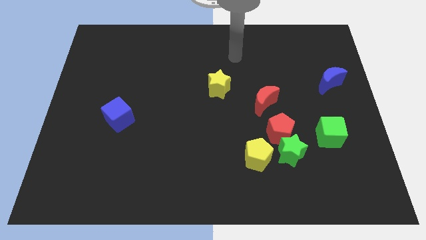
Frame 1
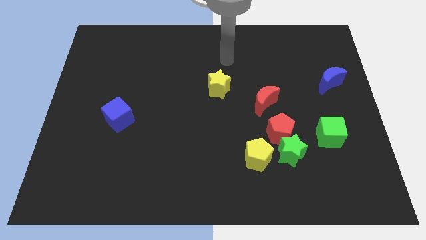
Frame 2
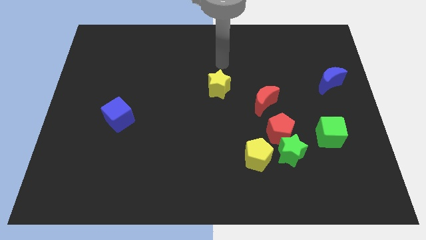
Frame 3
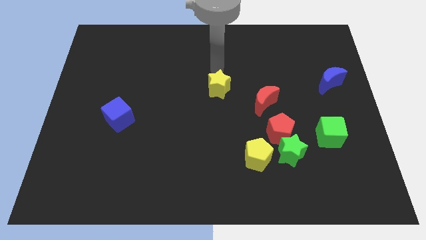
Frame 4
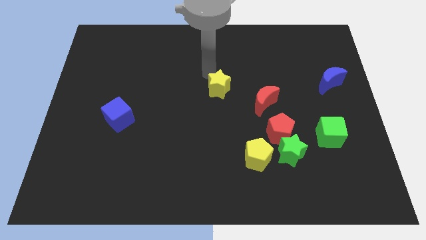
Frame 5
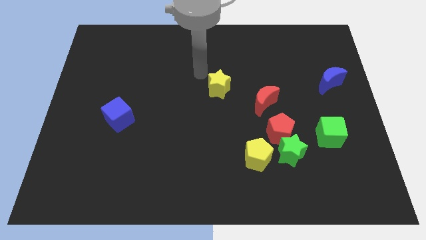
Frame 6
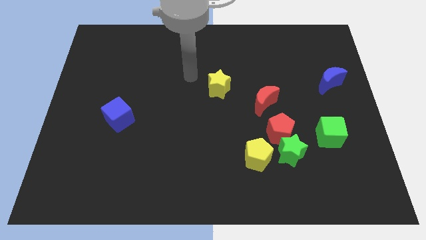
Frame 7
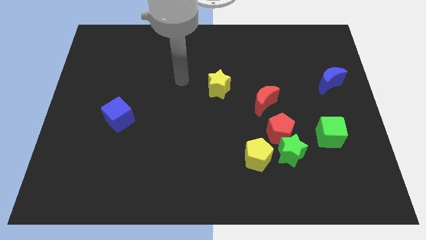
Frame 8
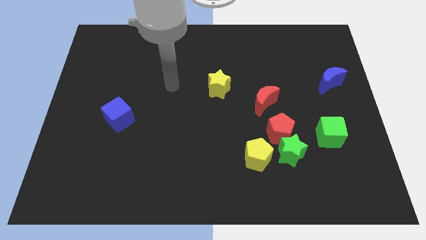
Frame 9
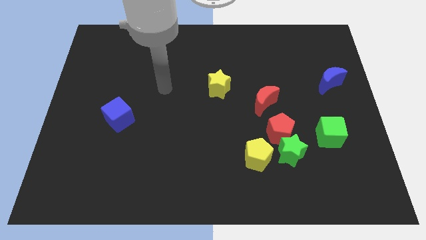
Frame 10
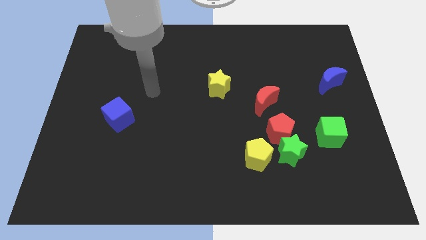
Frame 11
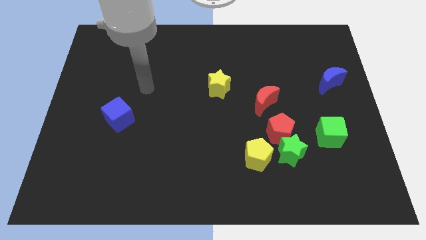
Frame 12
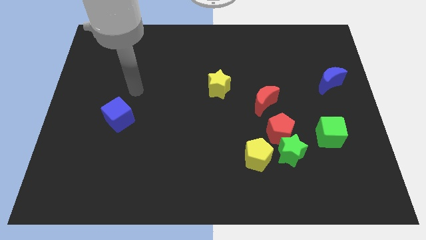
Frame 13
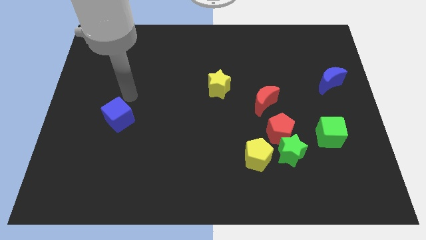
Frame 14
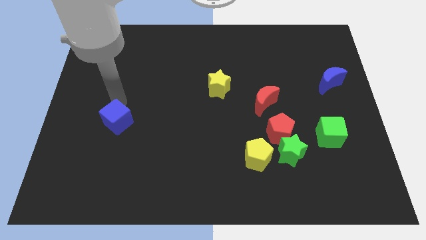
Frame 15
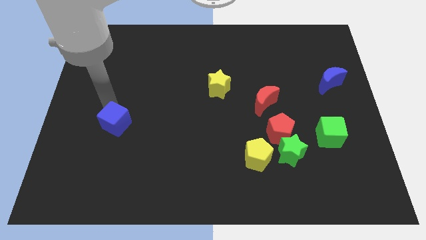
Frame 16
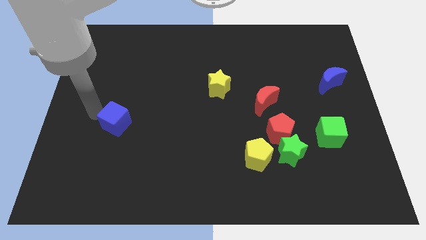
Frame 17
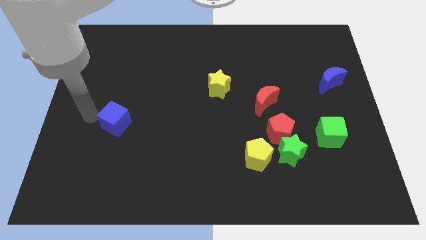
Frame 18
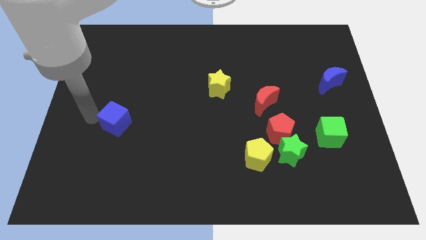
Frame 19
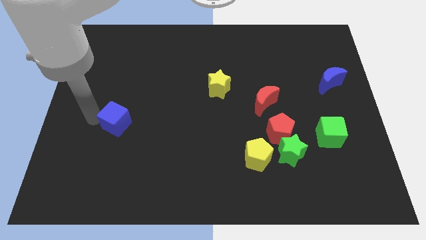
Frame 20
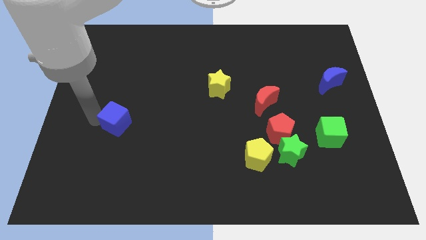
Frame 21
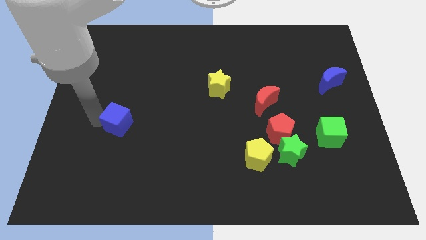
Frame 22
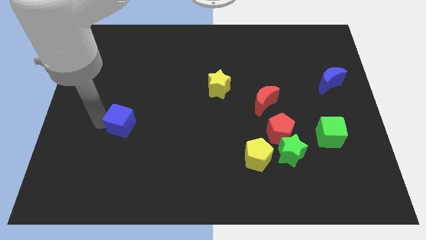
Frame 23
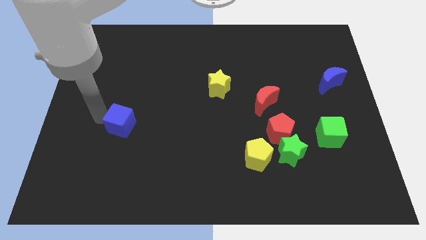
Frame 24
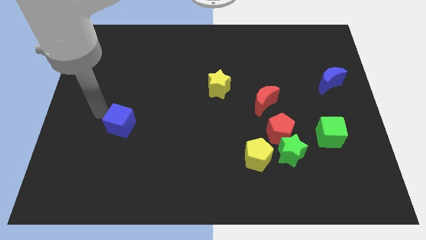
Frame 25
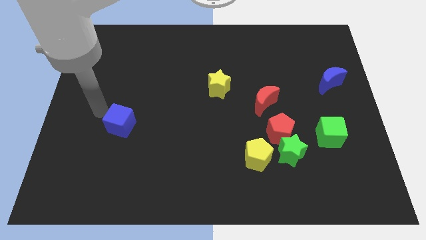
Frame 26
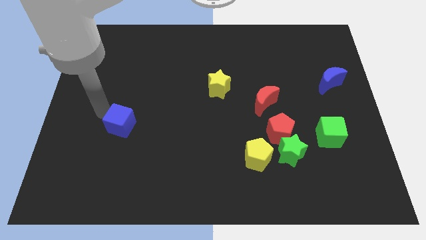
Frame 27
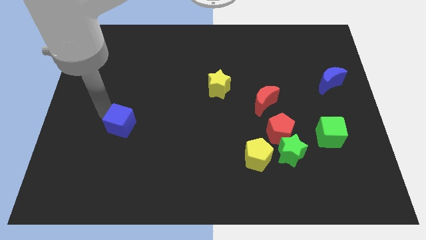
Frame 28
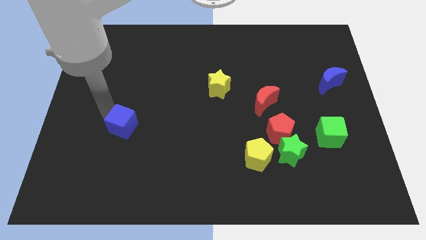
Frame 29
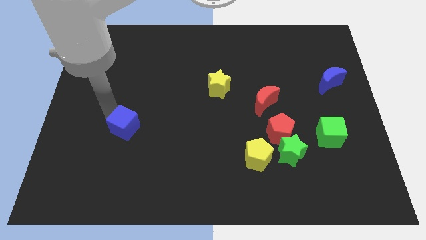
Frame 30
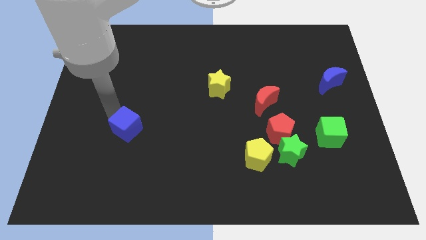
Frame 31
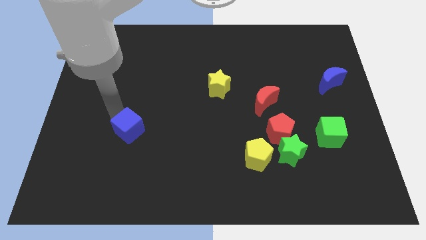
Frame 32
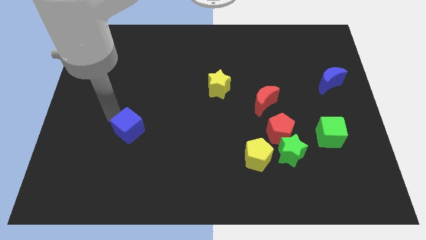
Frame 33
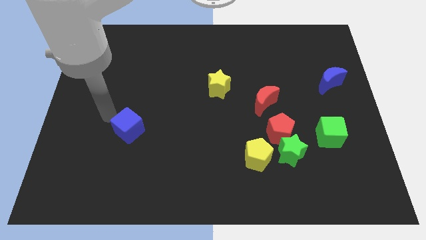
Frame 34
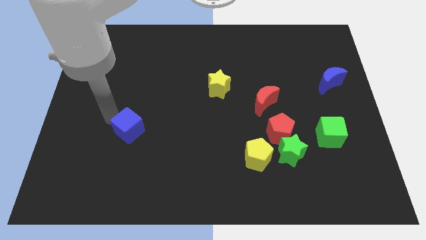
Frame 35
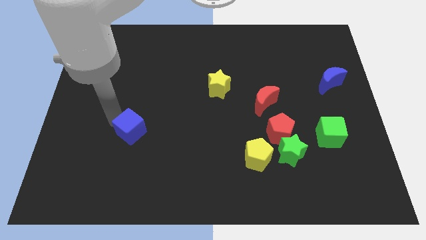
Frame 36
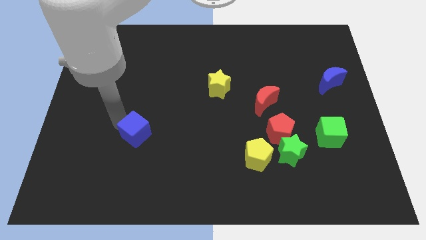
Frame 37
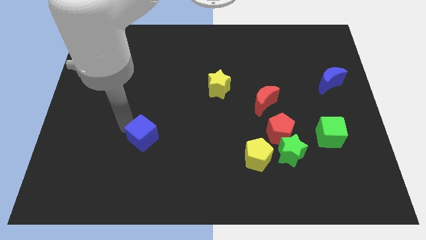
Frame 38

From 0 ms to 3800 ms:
push the blue cube down and then right somewhat

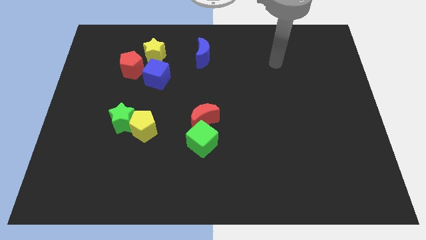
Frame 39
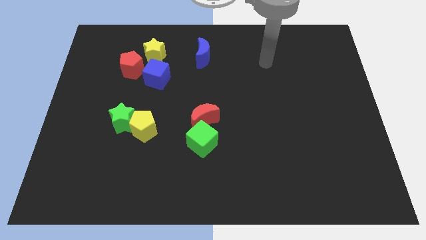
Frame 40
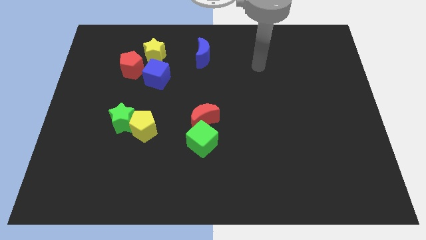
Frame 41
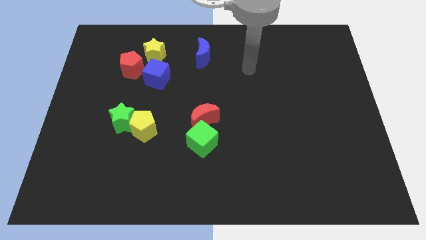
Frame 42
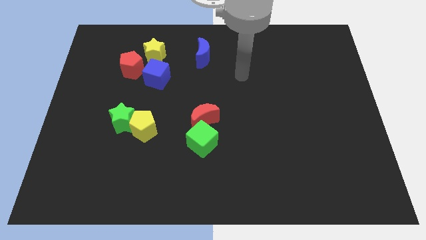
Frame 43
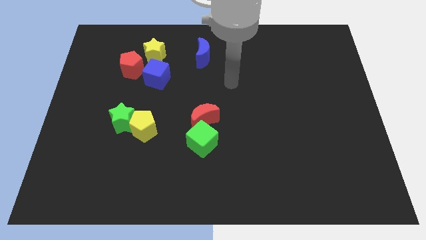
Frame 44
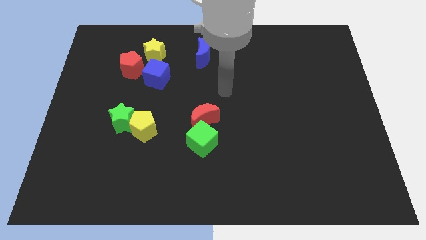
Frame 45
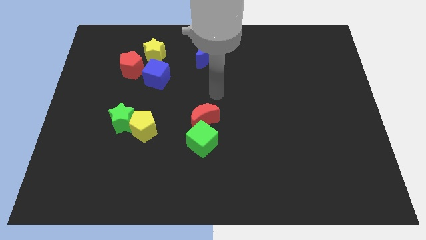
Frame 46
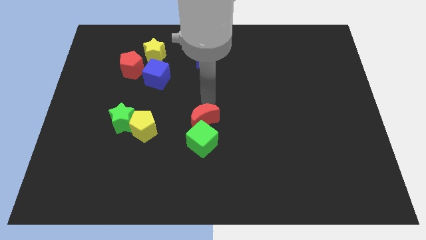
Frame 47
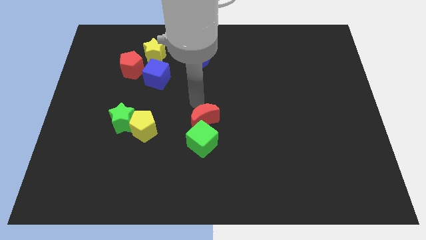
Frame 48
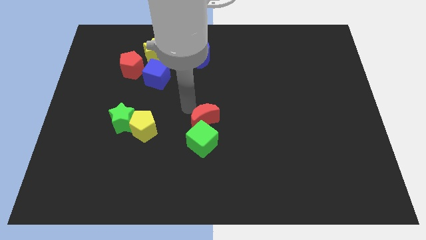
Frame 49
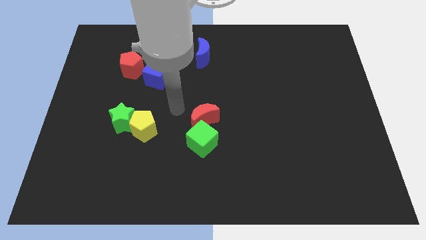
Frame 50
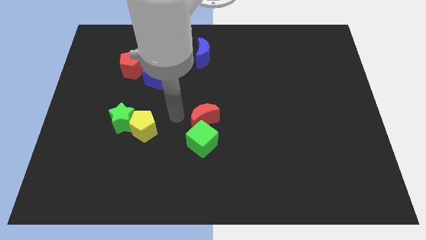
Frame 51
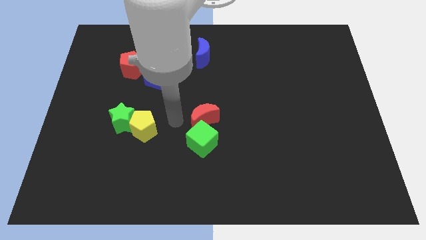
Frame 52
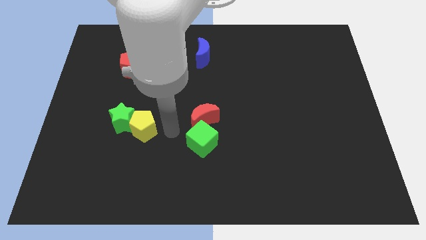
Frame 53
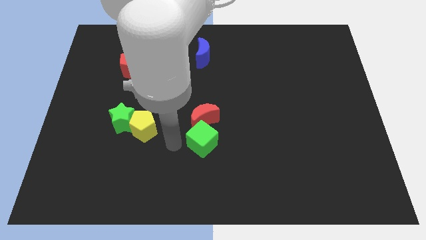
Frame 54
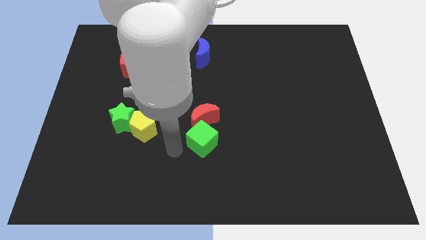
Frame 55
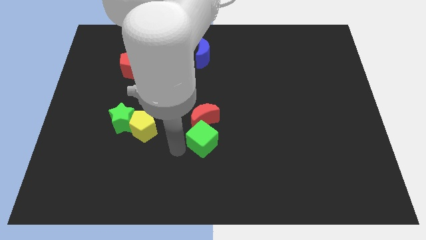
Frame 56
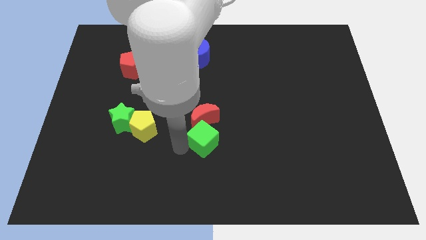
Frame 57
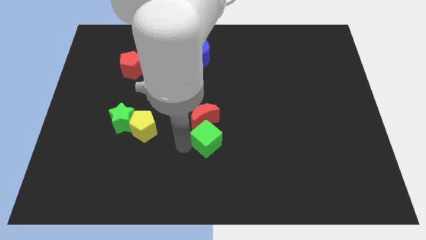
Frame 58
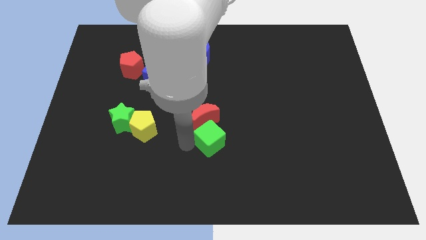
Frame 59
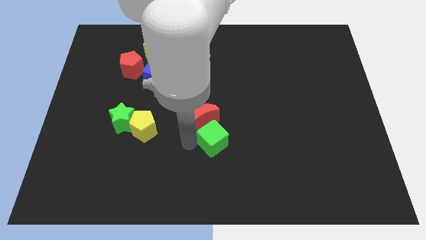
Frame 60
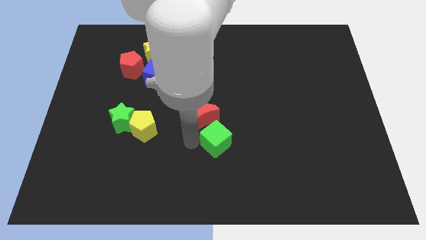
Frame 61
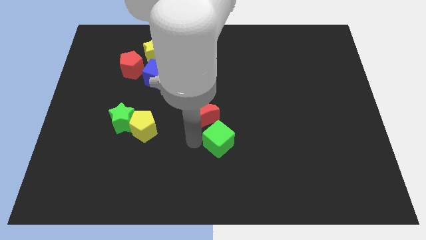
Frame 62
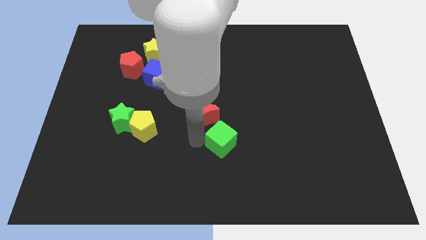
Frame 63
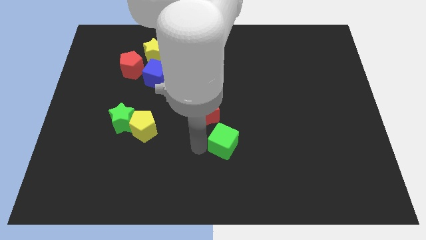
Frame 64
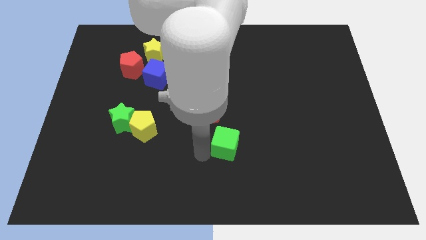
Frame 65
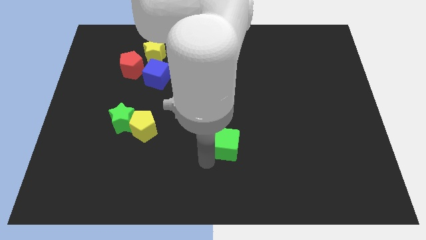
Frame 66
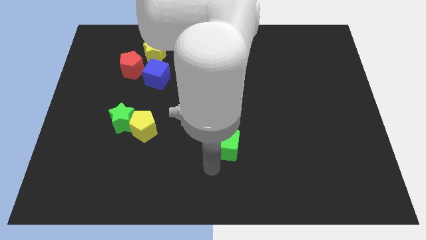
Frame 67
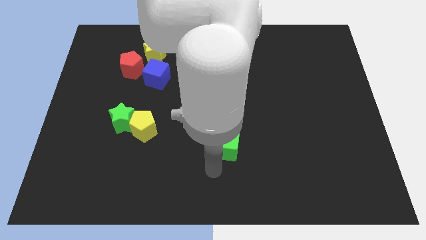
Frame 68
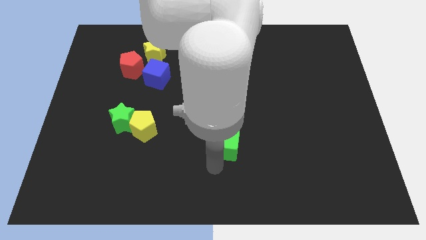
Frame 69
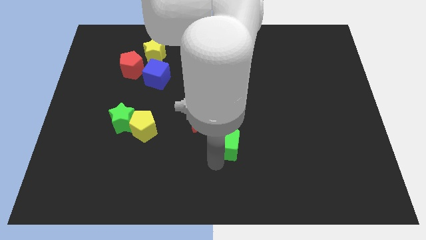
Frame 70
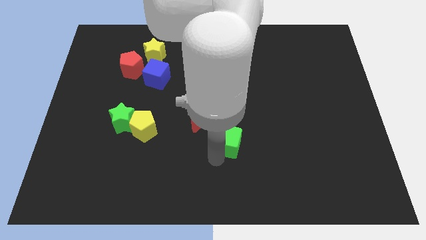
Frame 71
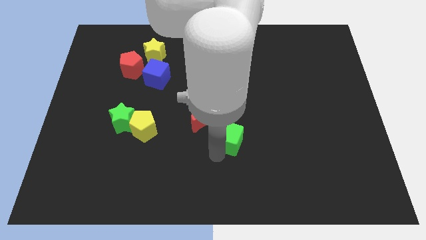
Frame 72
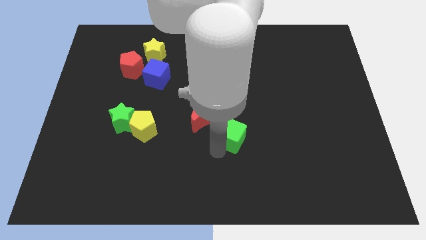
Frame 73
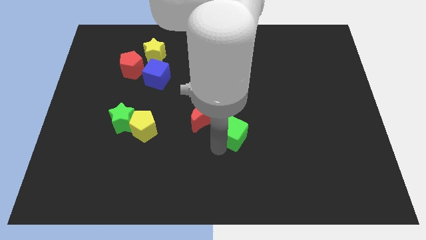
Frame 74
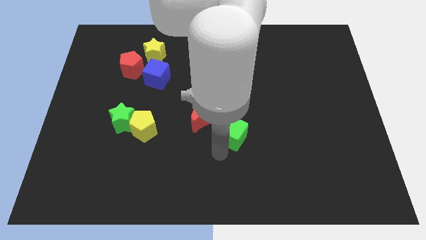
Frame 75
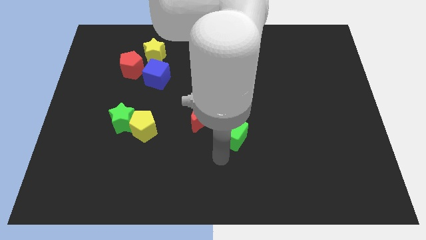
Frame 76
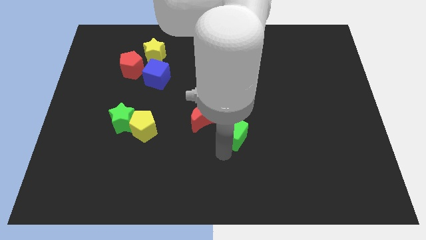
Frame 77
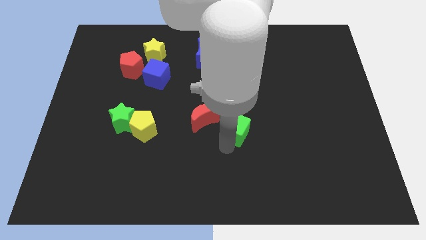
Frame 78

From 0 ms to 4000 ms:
slightly slide the green cube up and right

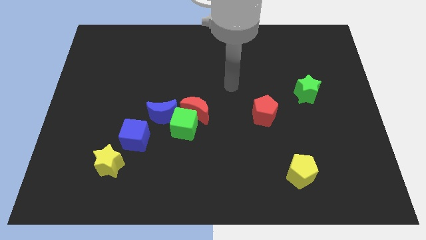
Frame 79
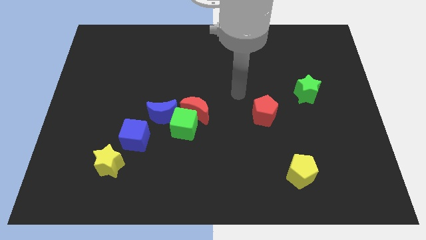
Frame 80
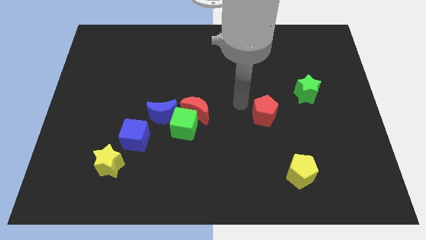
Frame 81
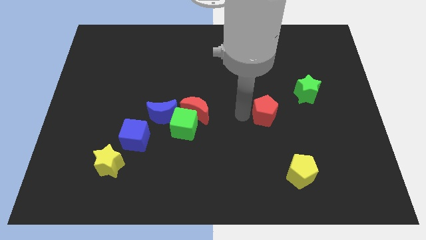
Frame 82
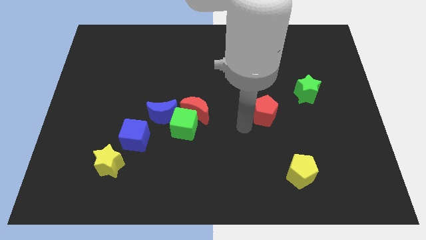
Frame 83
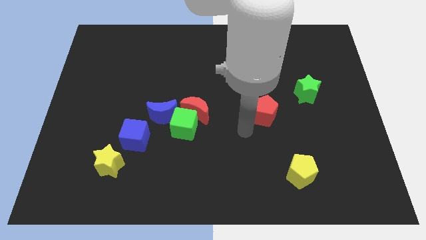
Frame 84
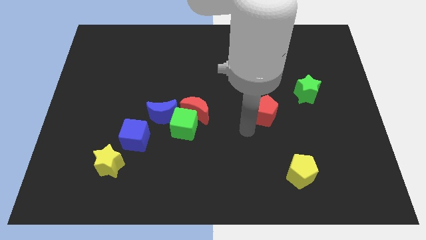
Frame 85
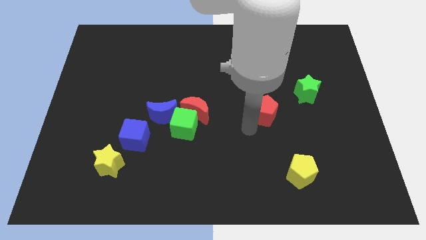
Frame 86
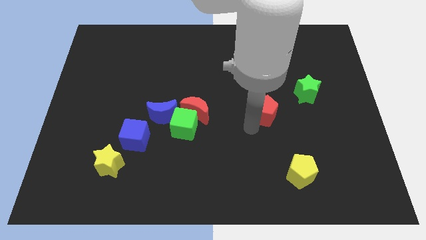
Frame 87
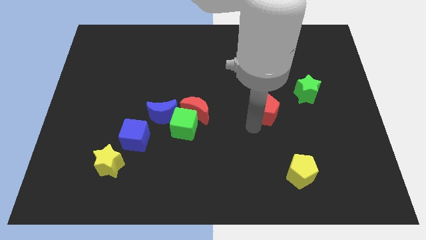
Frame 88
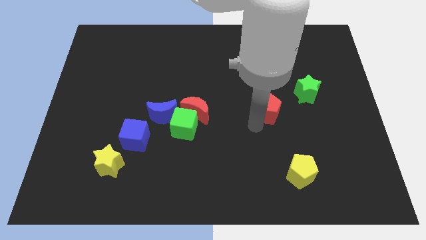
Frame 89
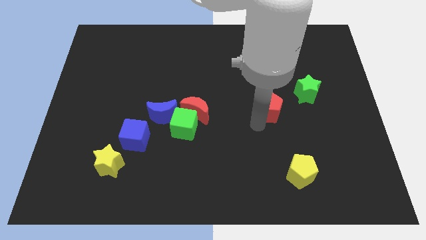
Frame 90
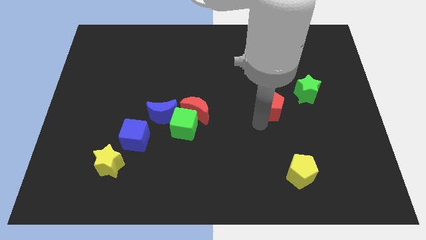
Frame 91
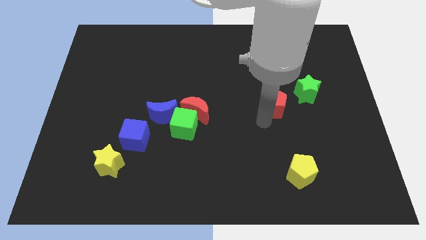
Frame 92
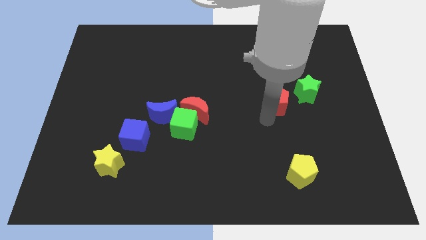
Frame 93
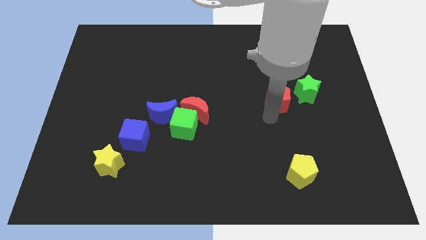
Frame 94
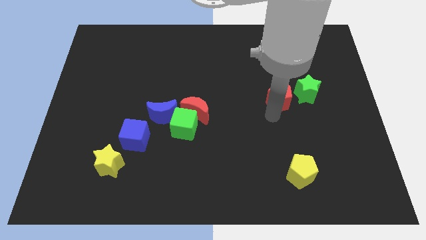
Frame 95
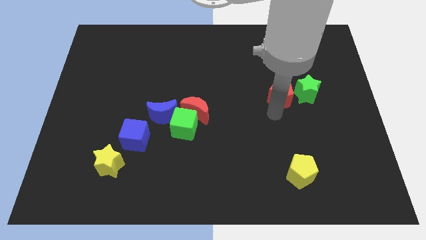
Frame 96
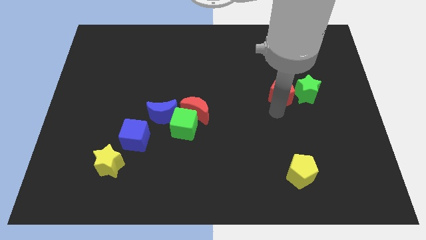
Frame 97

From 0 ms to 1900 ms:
move the red pentagon up and to the right a bit
